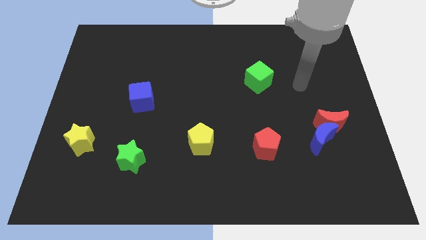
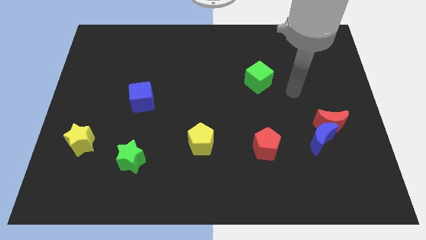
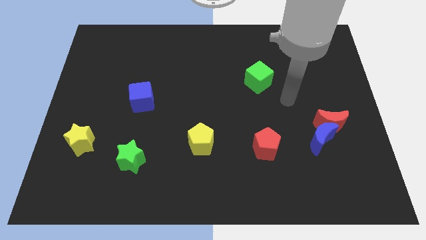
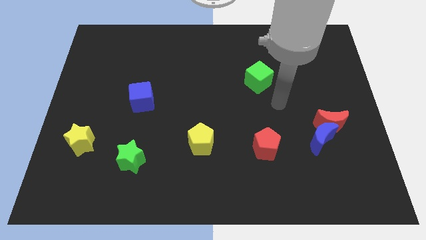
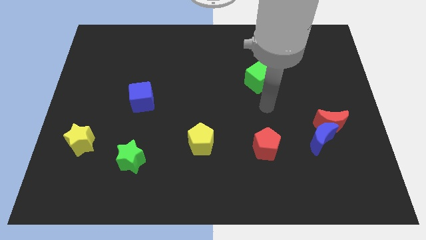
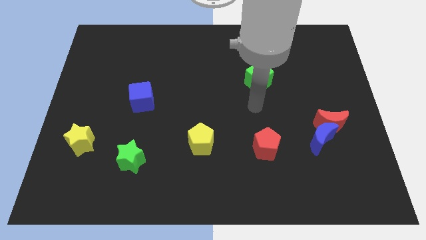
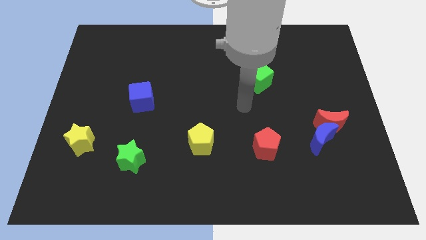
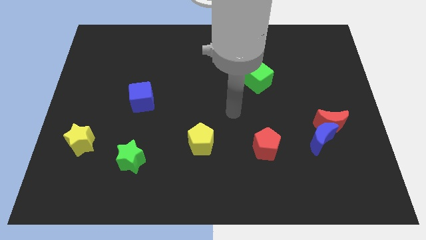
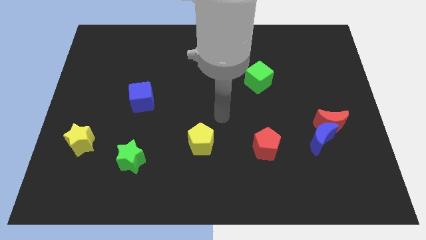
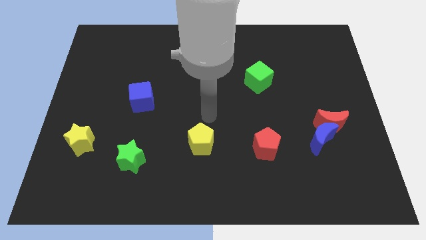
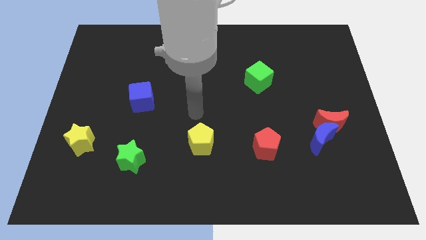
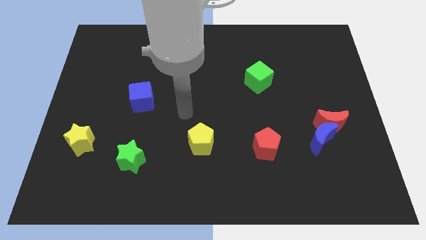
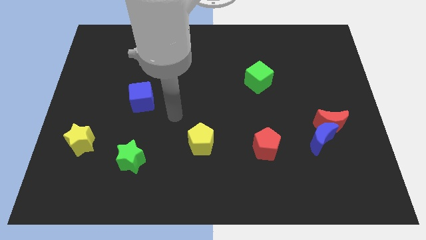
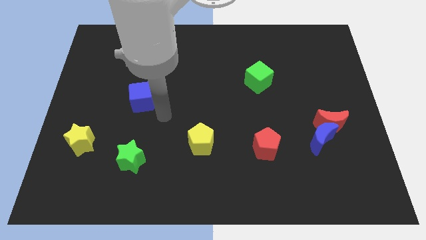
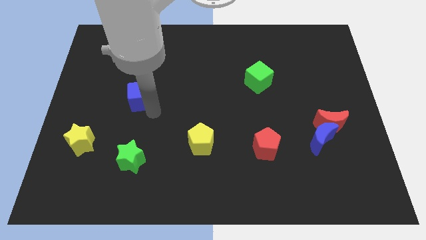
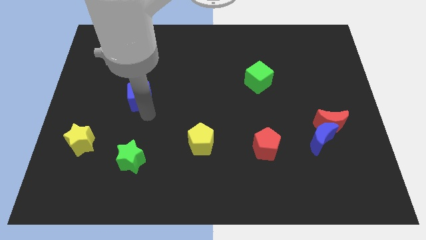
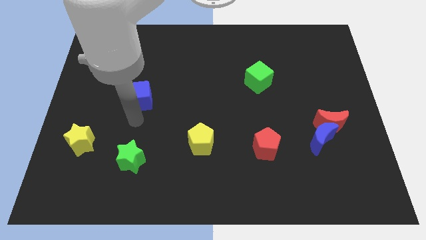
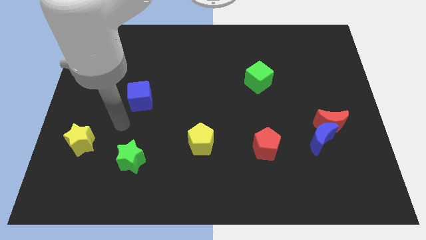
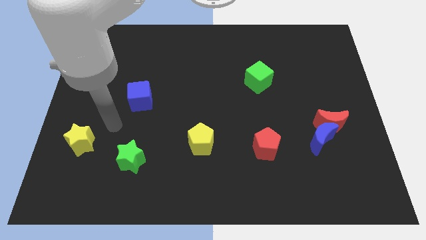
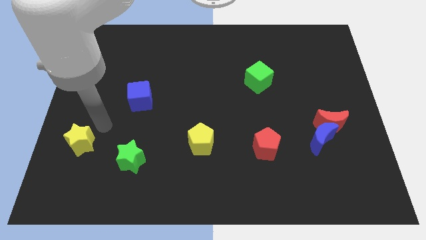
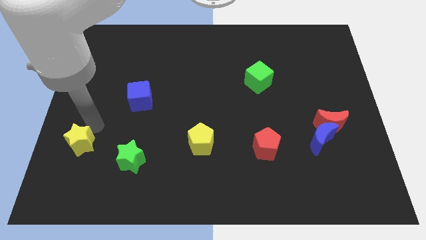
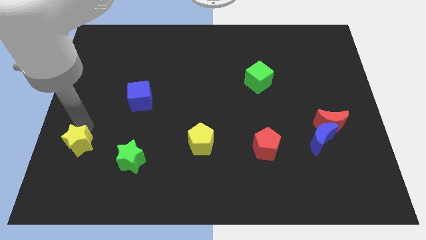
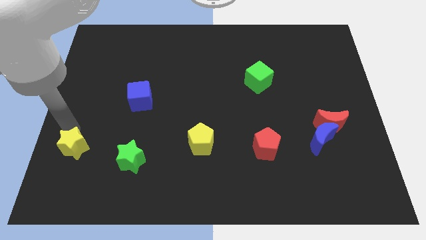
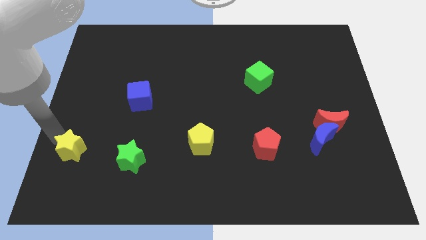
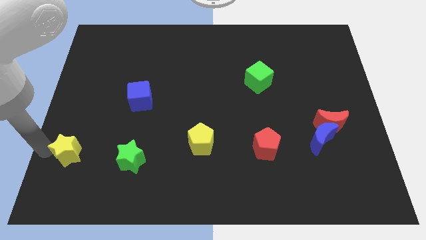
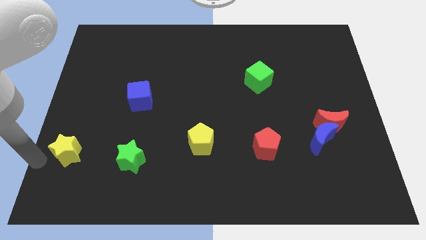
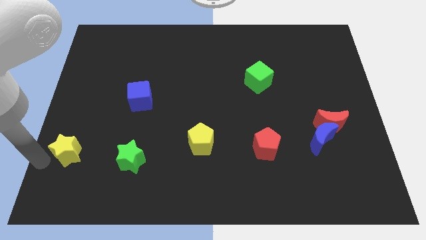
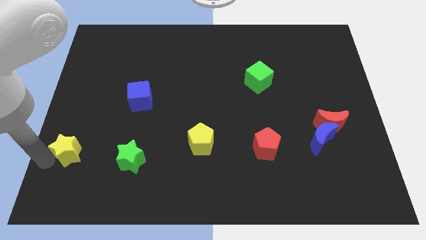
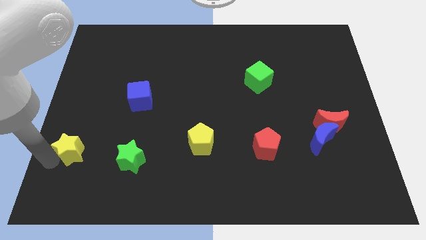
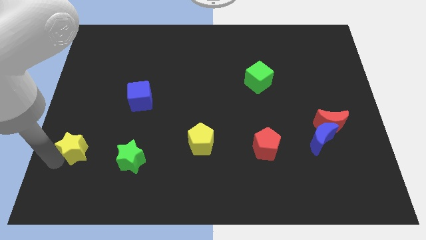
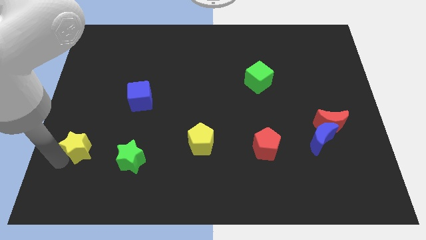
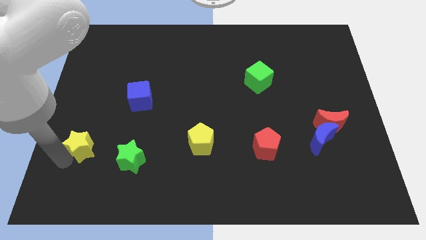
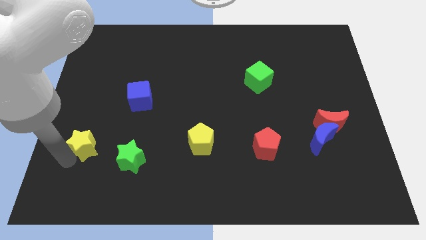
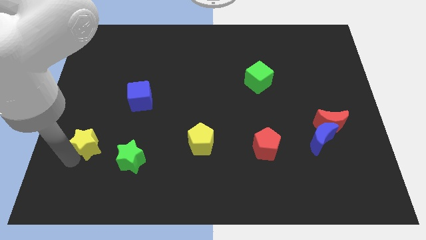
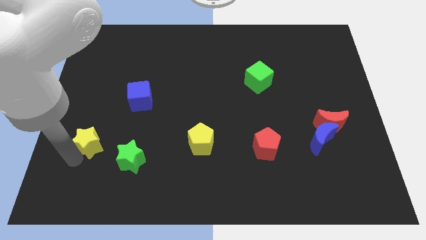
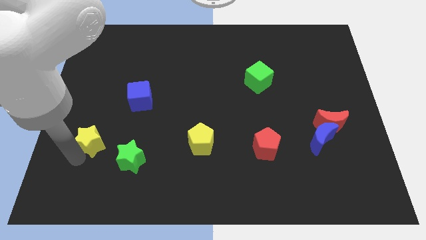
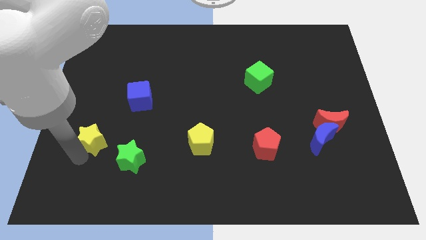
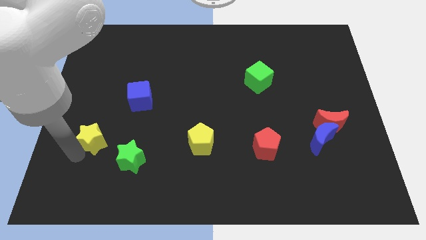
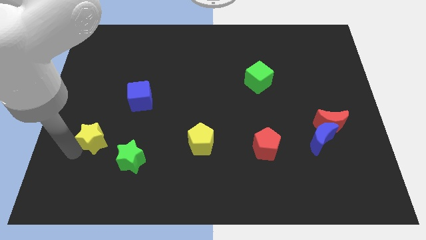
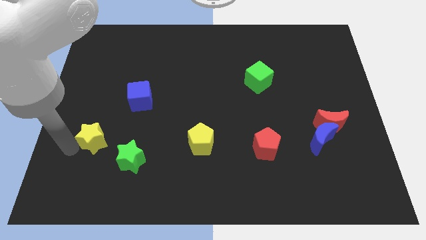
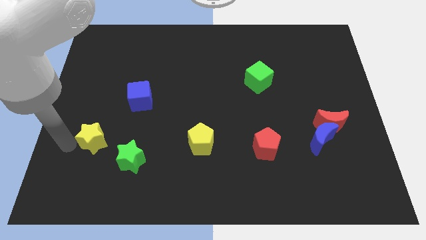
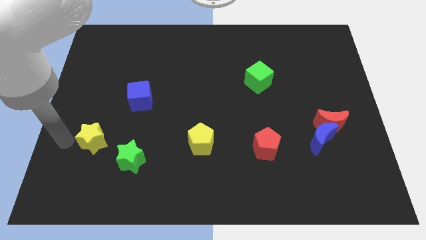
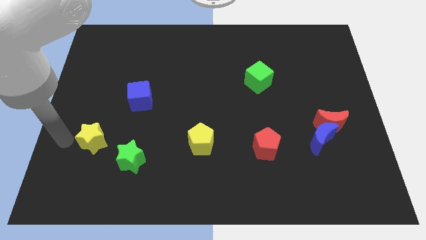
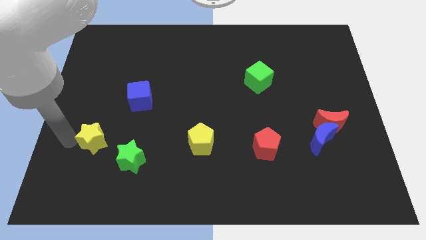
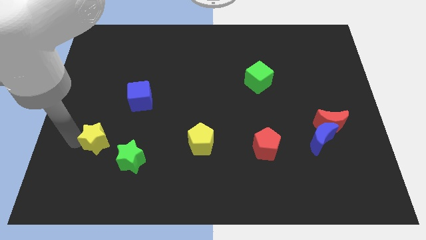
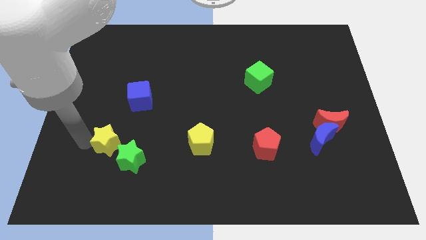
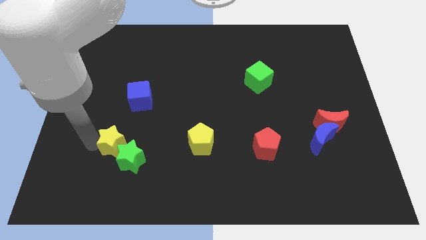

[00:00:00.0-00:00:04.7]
slide the yellow star to the bottom side of the blue cube

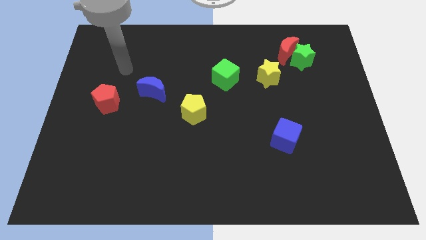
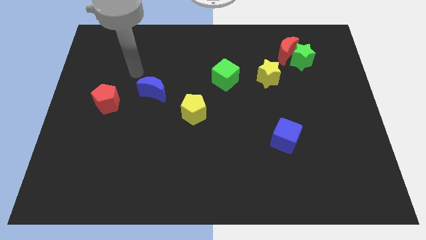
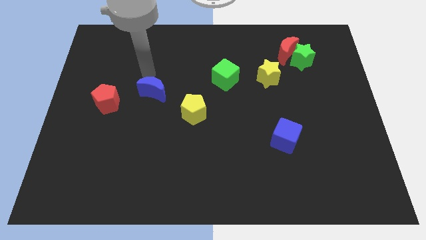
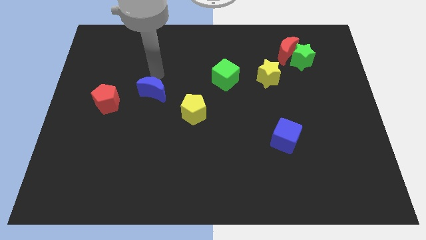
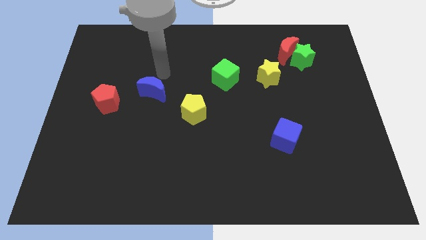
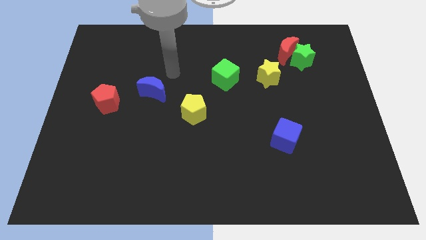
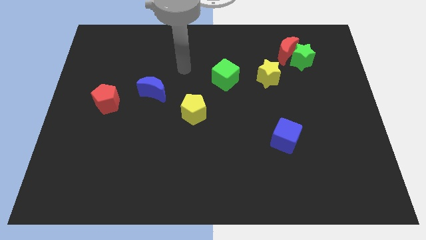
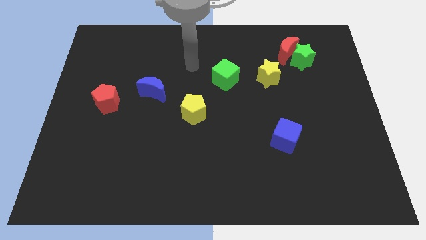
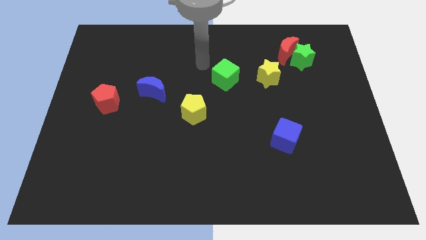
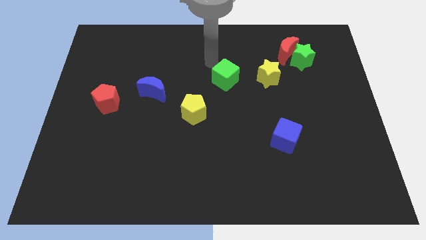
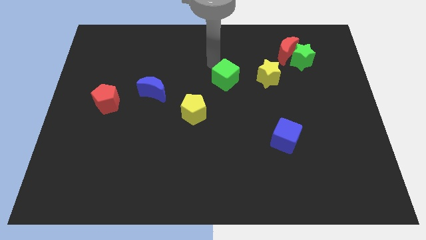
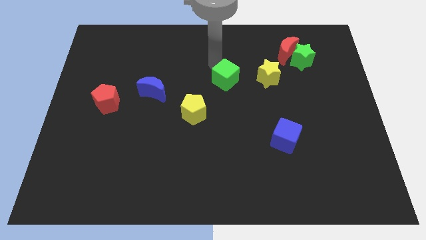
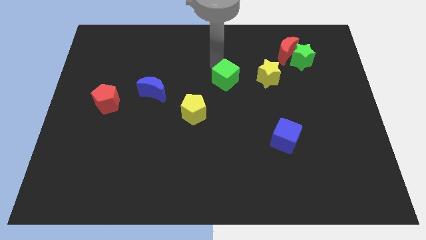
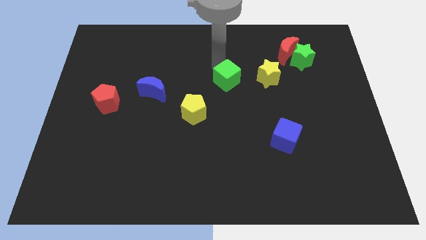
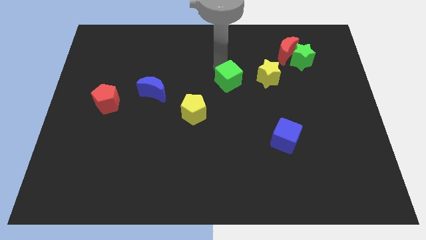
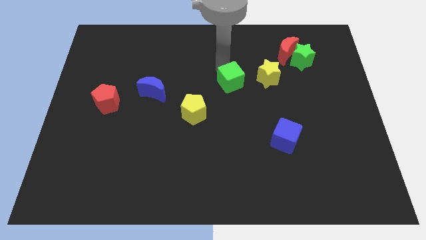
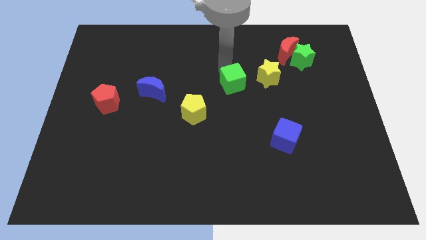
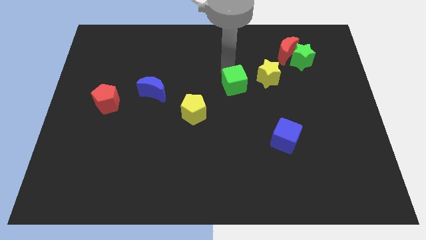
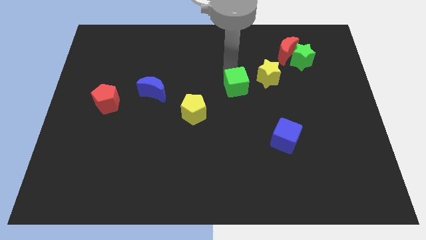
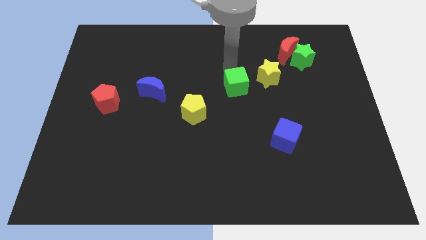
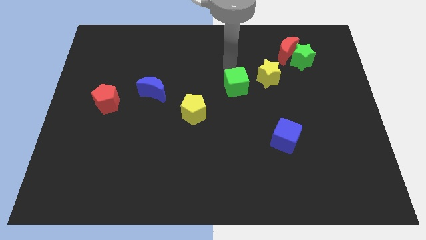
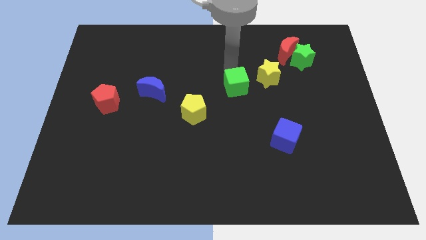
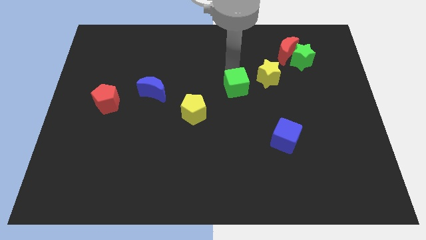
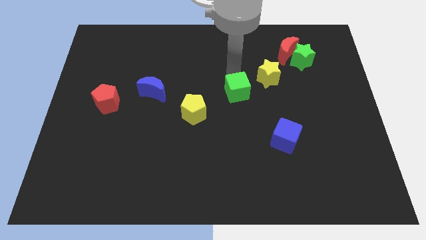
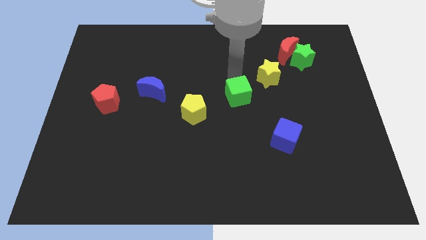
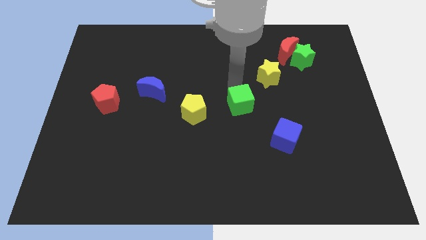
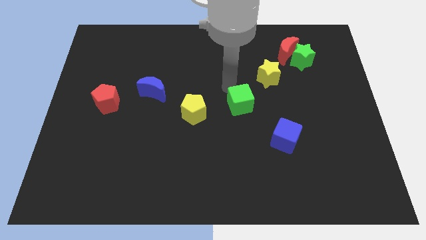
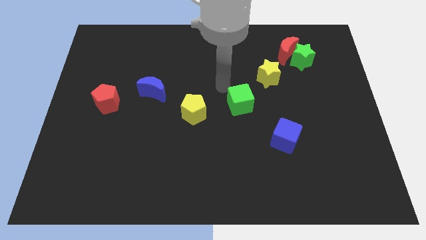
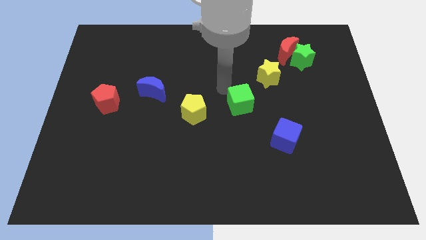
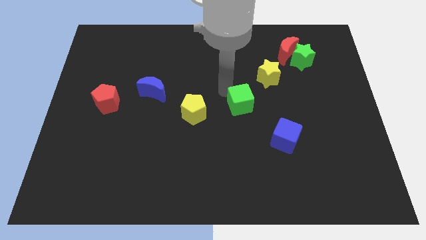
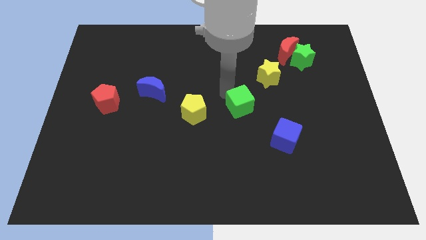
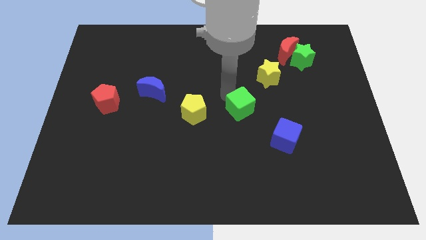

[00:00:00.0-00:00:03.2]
move the green cube to the top left of the blue cube
